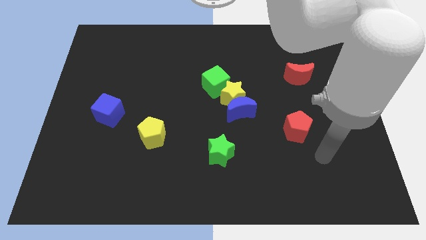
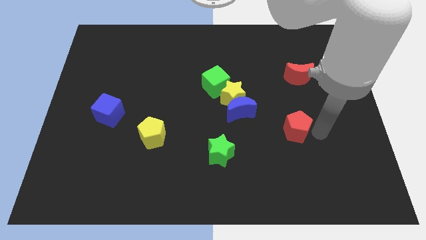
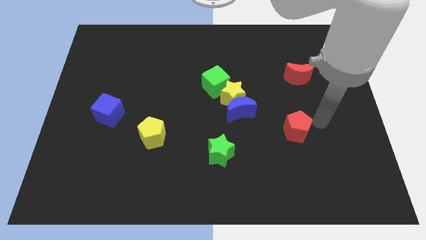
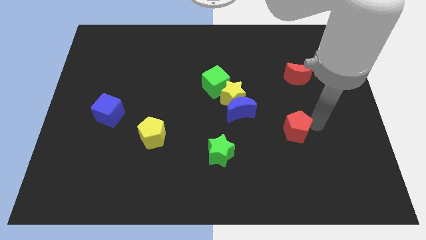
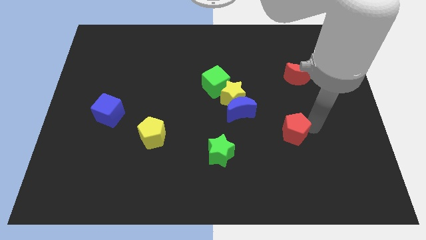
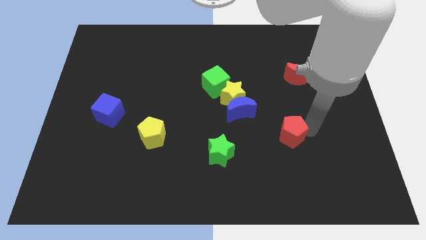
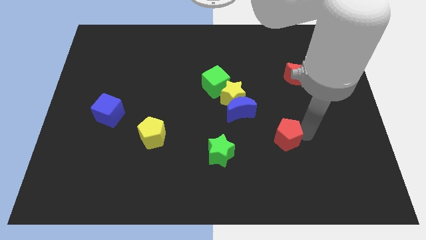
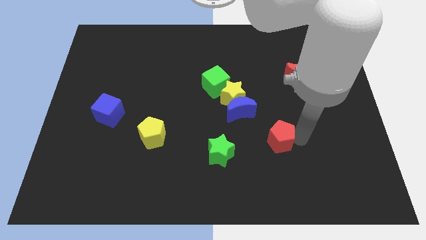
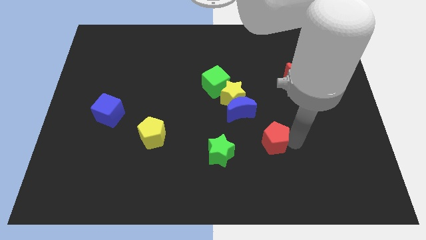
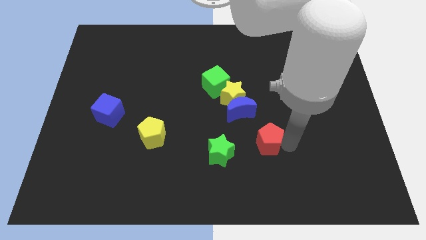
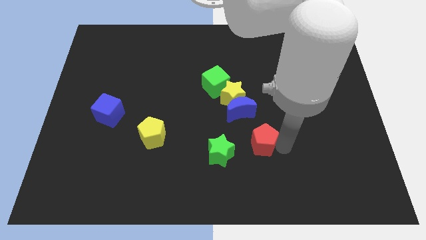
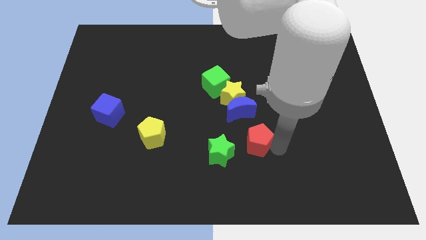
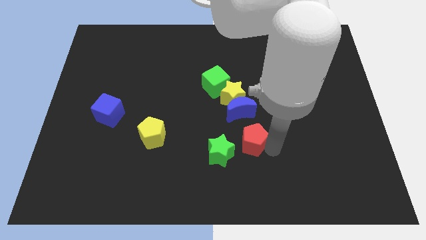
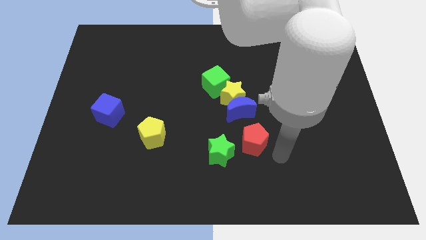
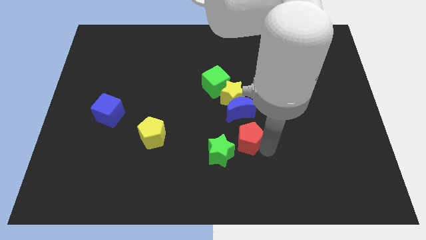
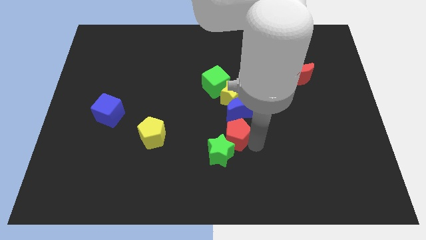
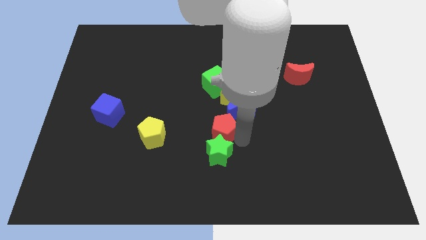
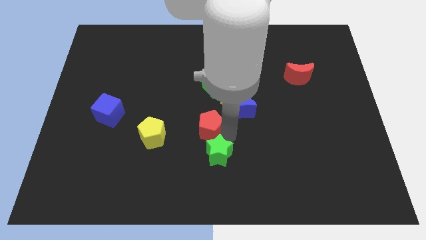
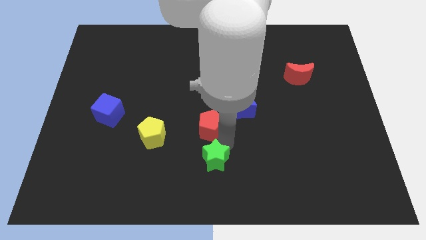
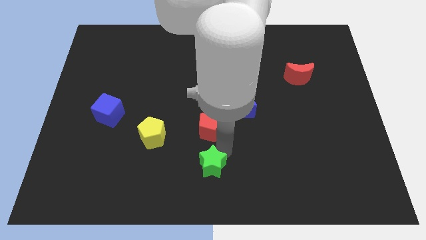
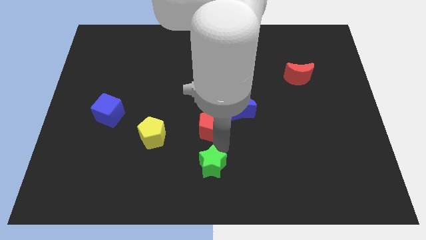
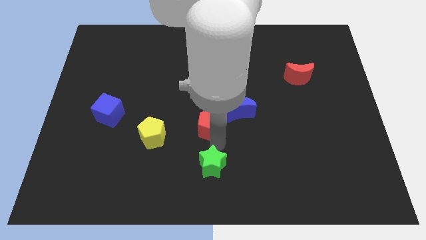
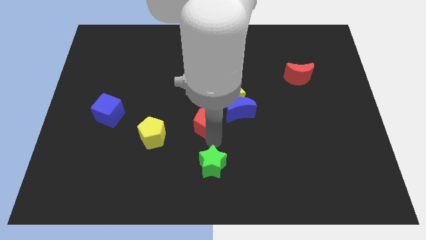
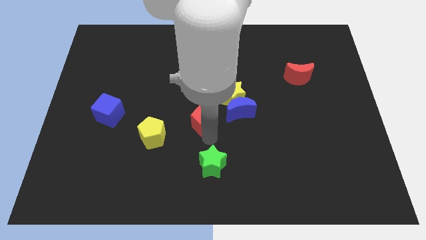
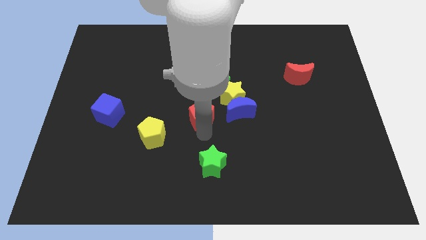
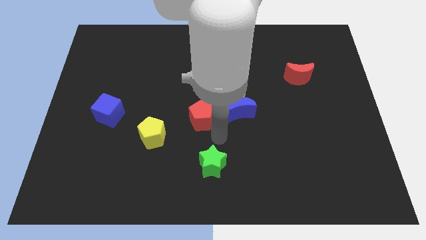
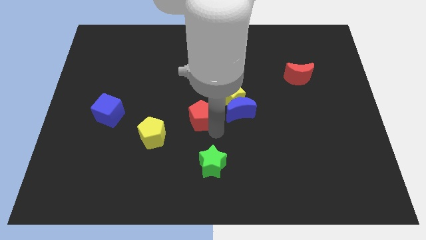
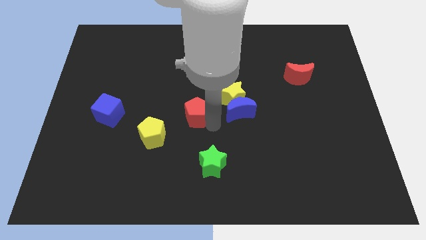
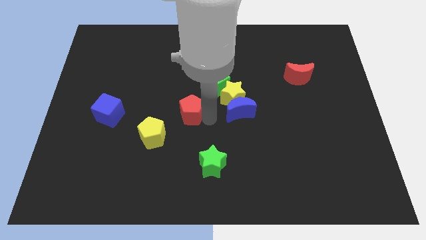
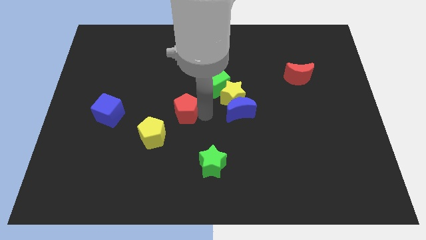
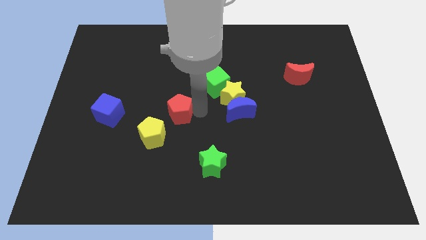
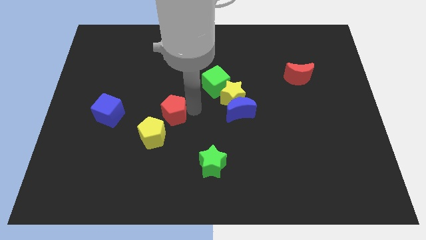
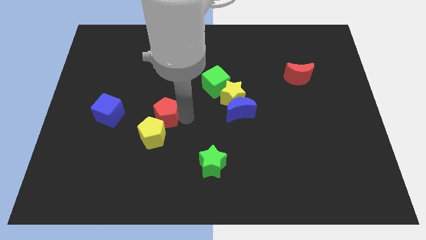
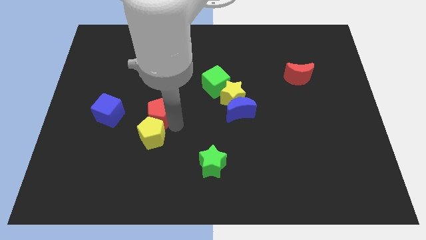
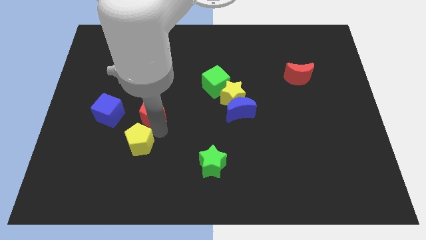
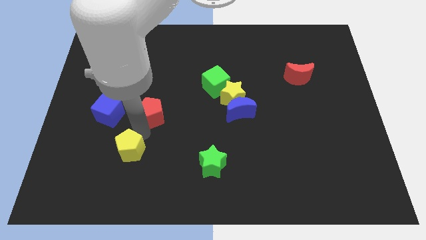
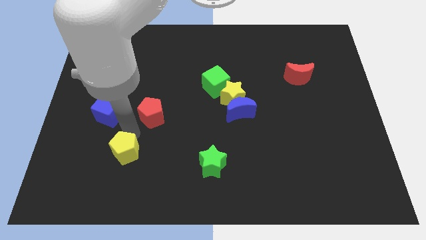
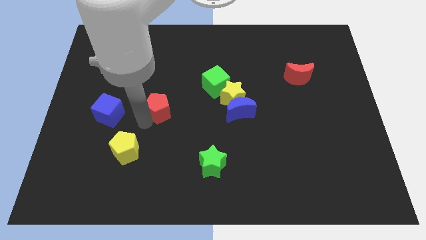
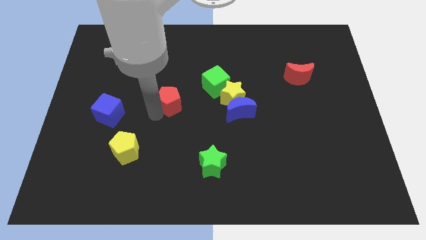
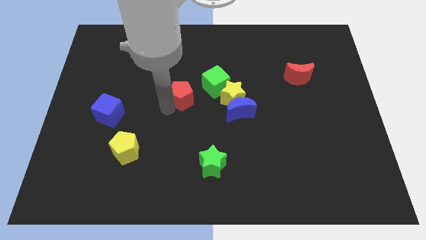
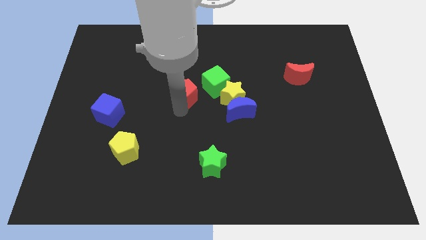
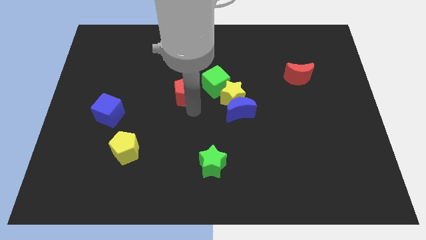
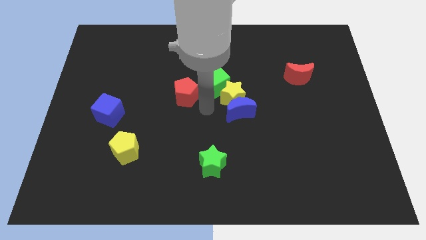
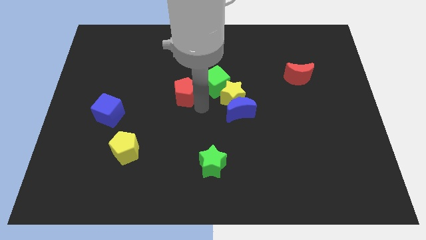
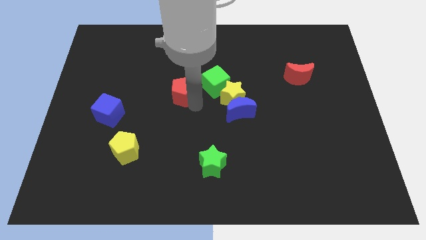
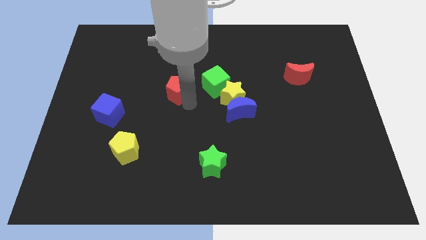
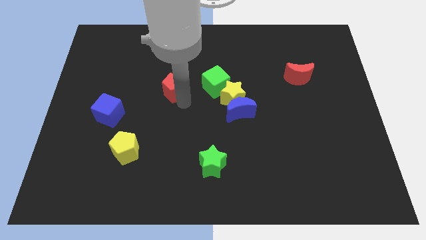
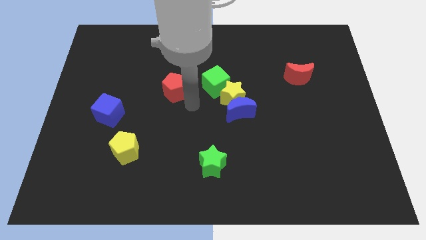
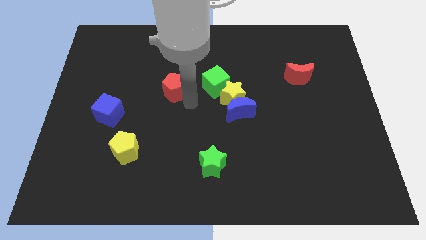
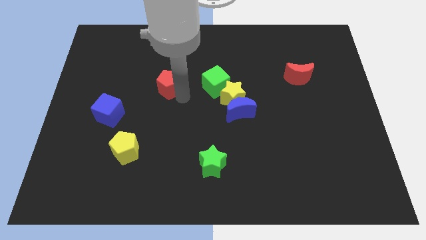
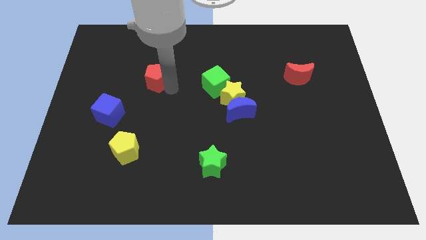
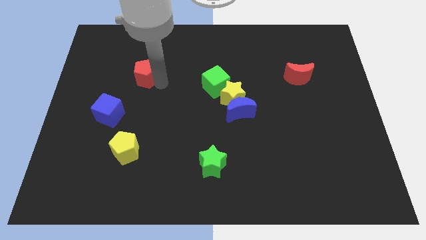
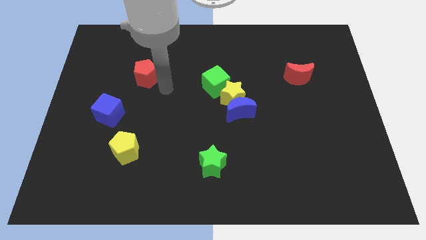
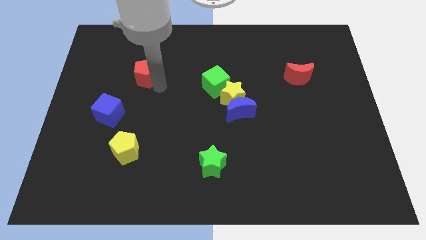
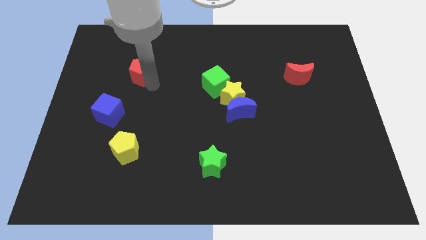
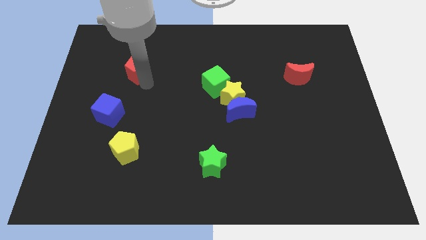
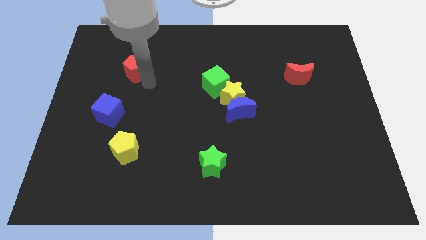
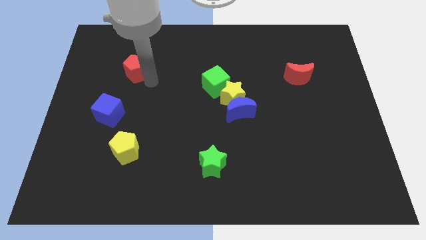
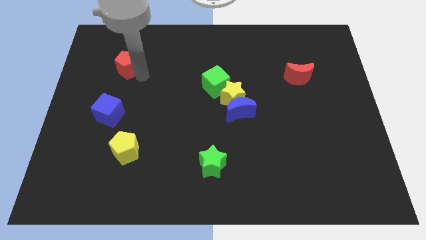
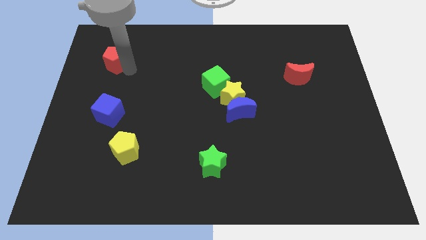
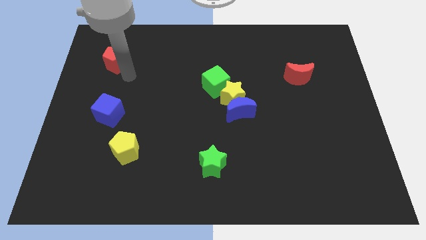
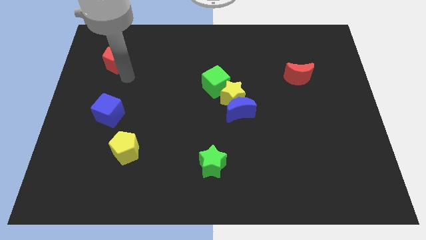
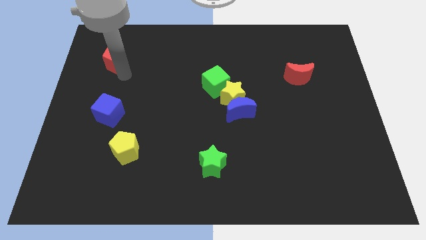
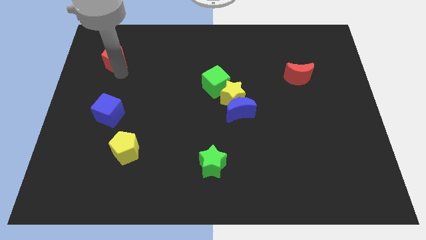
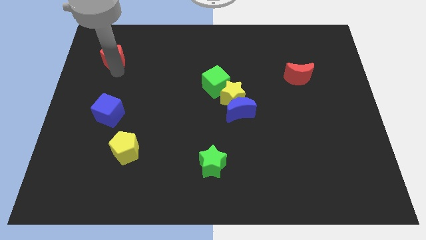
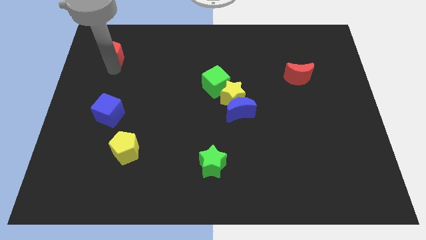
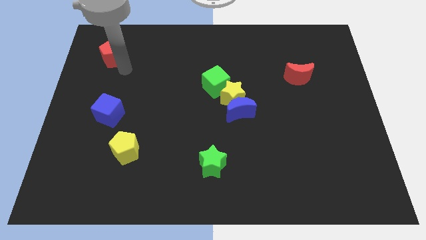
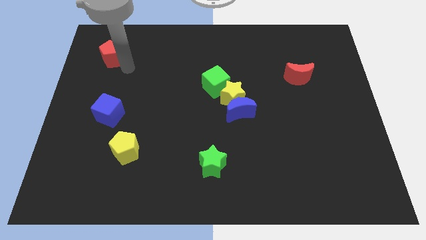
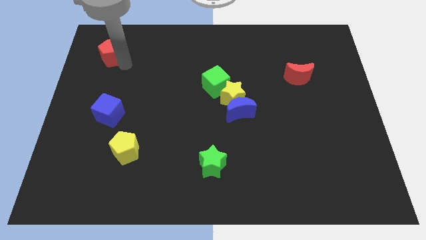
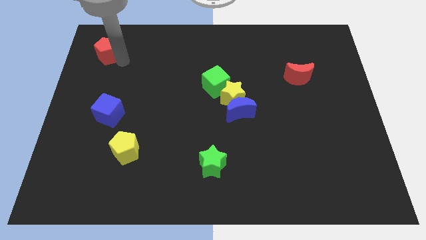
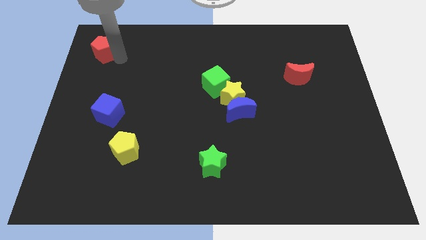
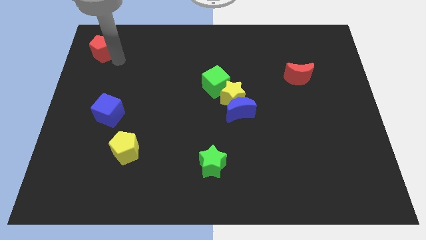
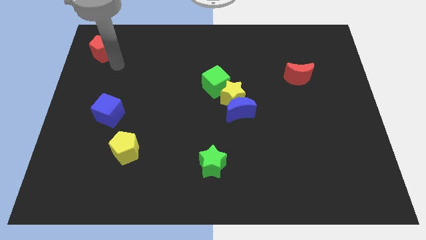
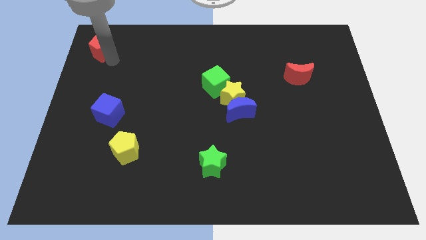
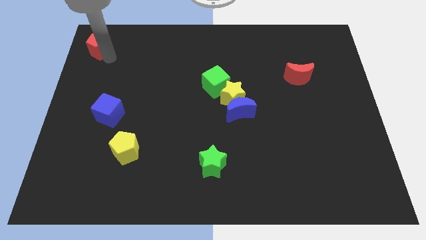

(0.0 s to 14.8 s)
slide the red pentagon to the top left

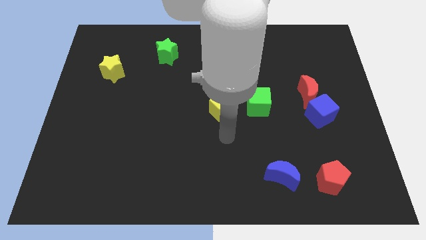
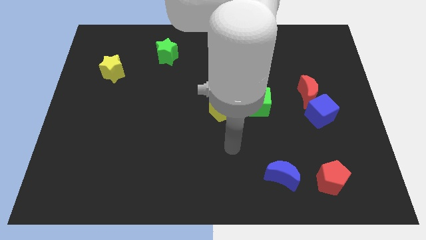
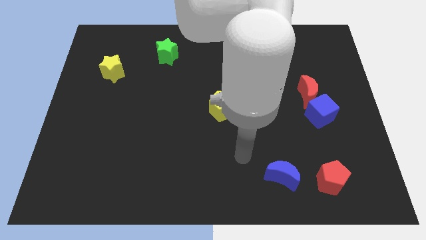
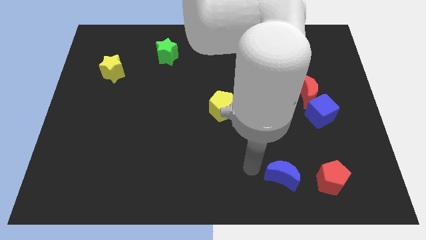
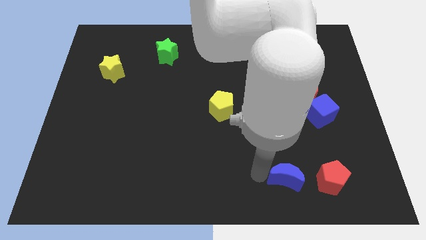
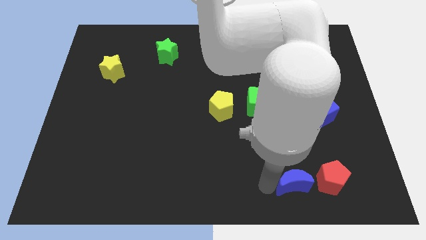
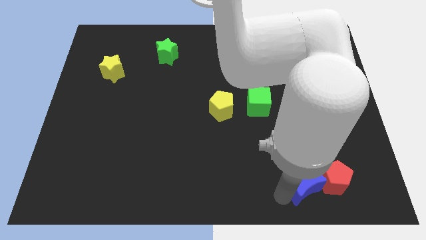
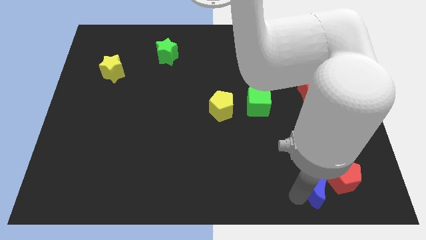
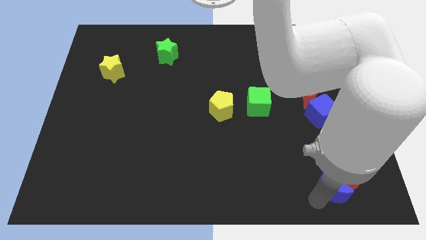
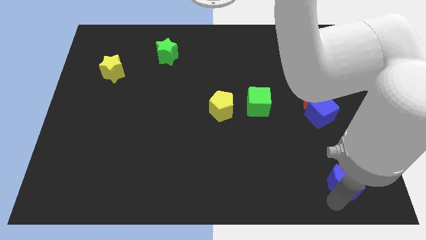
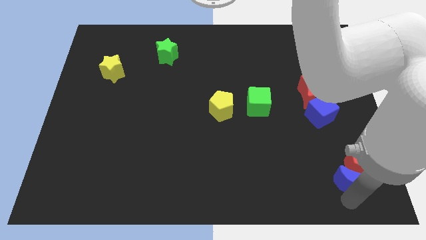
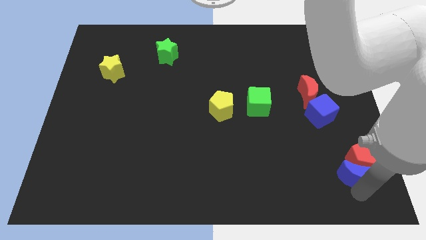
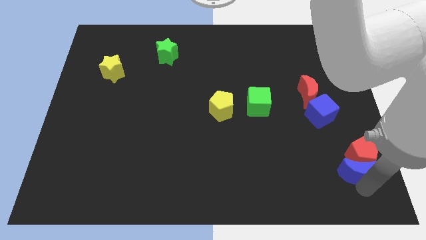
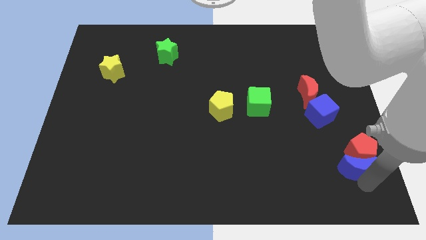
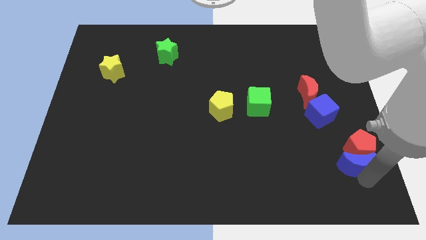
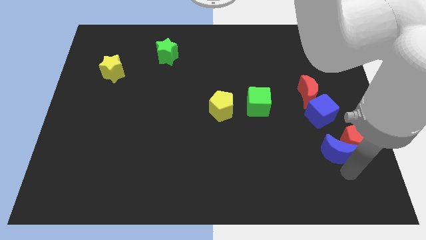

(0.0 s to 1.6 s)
push the red pentagon to the right side of the board
